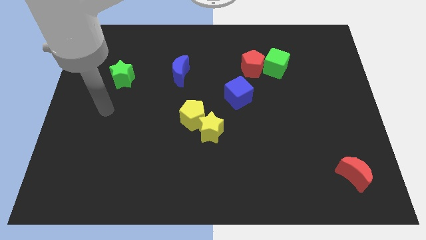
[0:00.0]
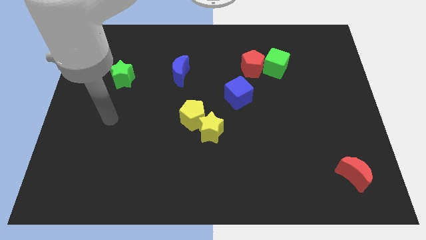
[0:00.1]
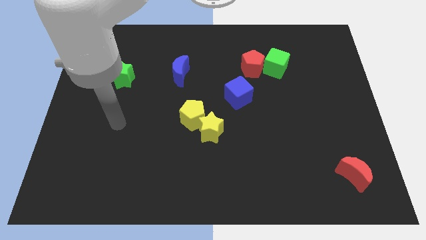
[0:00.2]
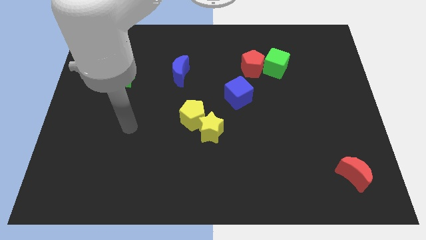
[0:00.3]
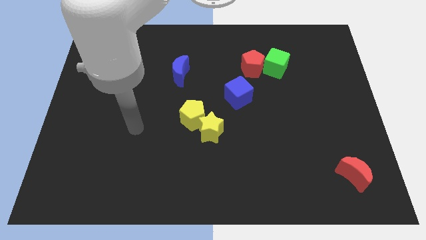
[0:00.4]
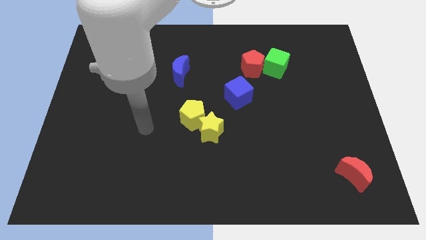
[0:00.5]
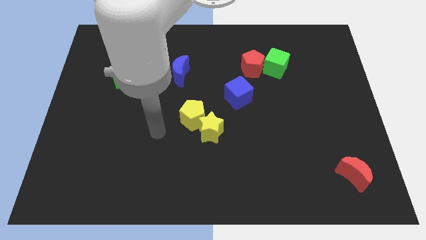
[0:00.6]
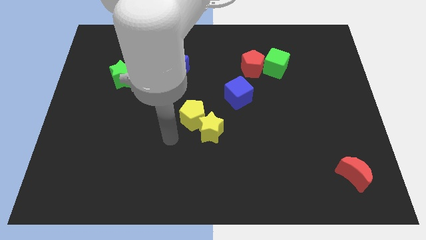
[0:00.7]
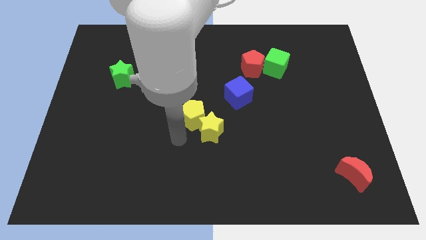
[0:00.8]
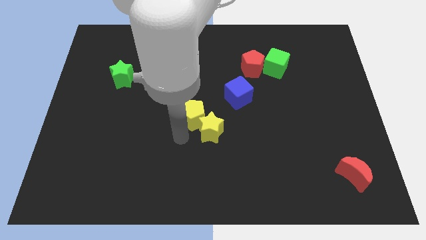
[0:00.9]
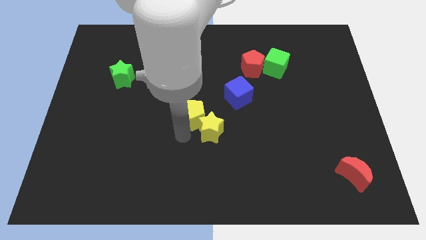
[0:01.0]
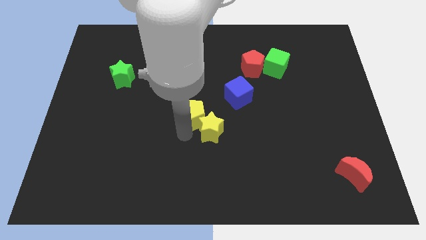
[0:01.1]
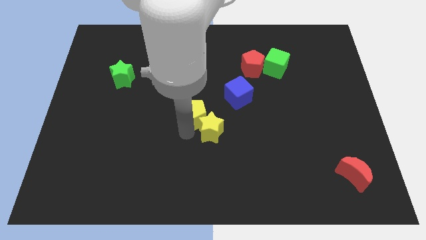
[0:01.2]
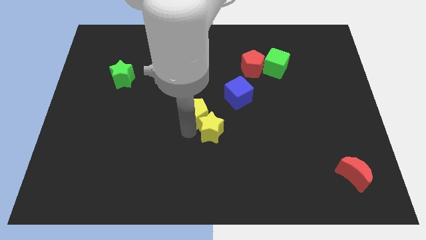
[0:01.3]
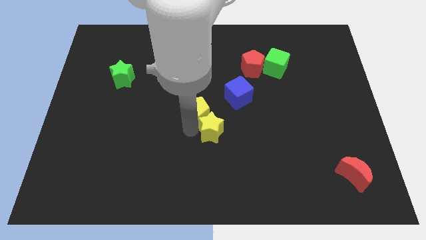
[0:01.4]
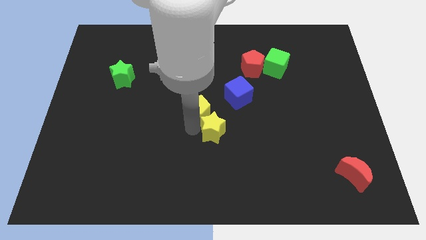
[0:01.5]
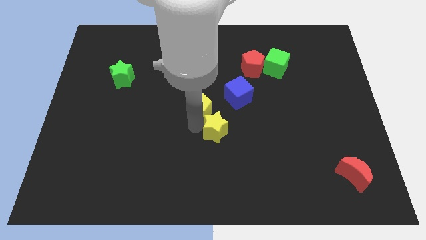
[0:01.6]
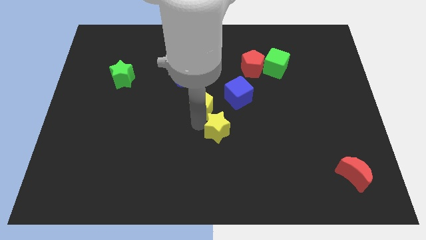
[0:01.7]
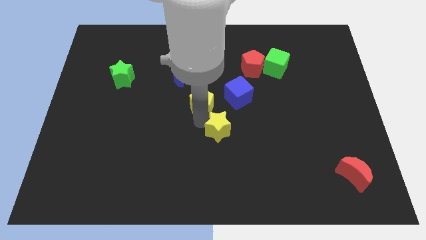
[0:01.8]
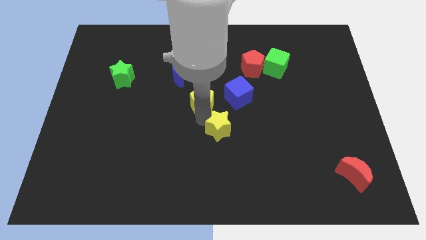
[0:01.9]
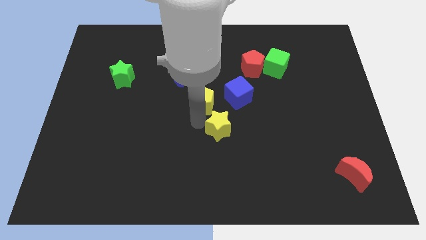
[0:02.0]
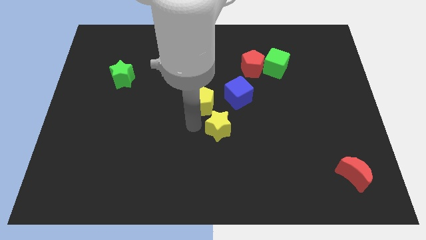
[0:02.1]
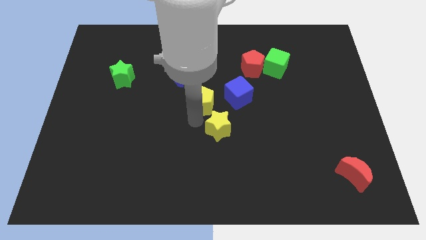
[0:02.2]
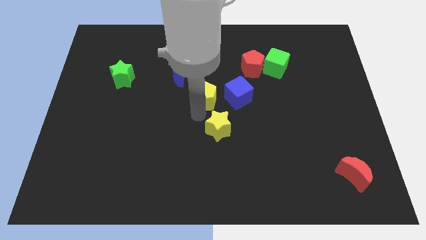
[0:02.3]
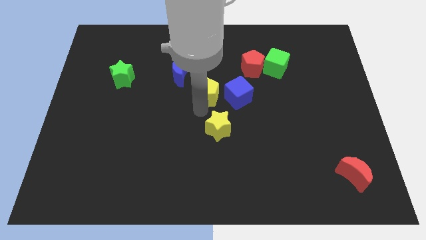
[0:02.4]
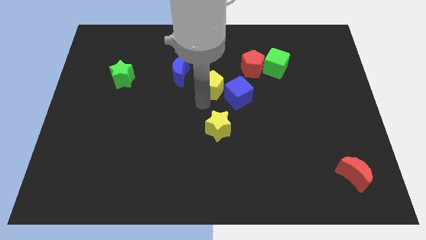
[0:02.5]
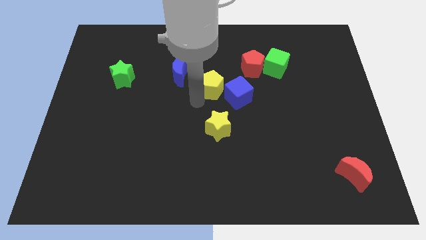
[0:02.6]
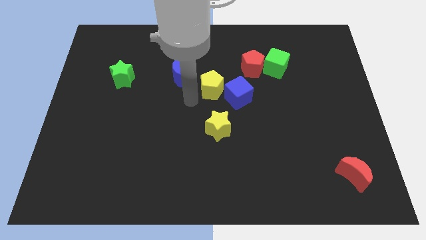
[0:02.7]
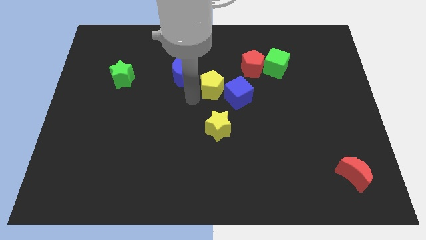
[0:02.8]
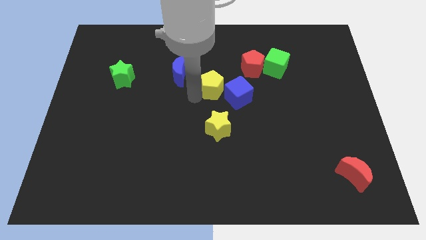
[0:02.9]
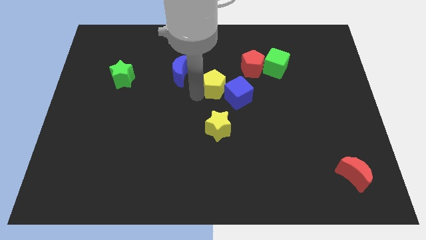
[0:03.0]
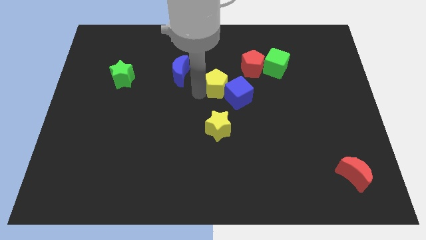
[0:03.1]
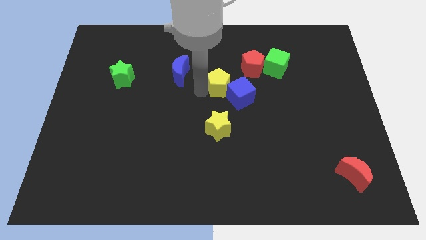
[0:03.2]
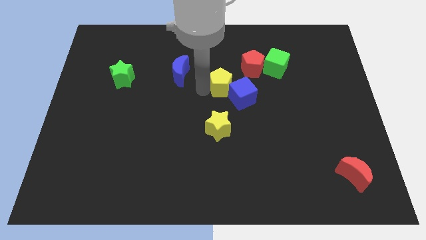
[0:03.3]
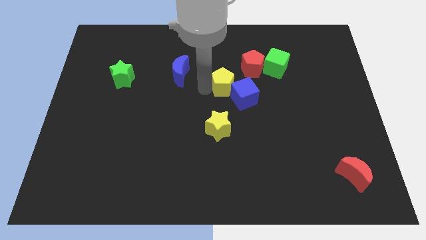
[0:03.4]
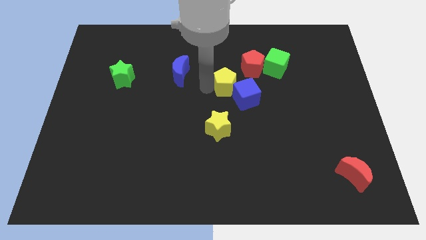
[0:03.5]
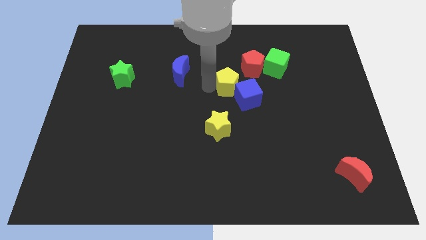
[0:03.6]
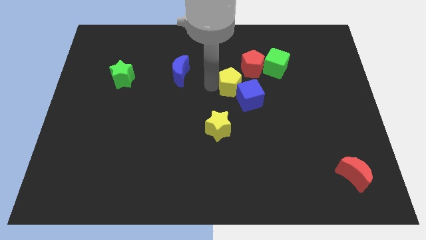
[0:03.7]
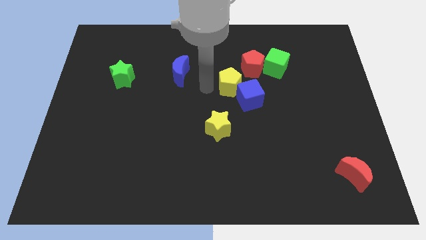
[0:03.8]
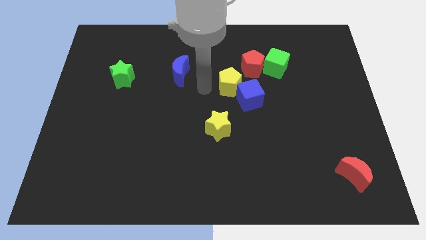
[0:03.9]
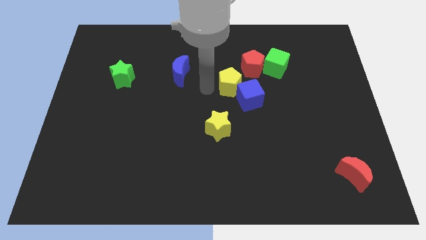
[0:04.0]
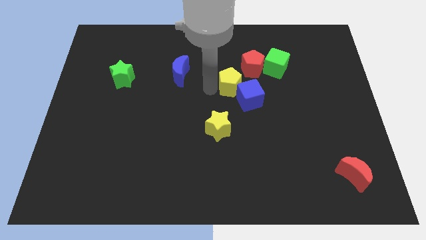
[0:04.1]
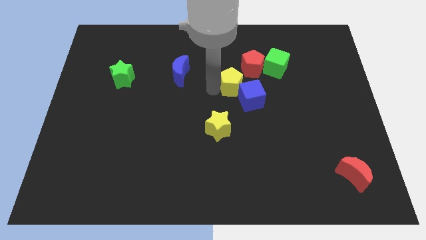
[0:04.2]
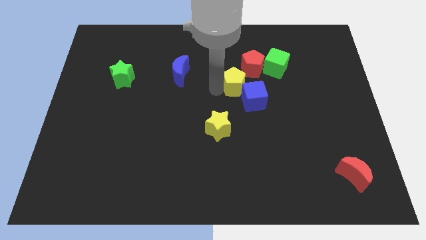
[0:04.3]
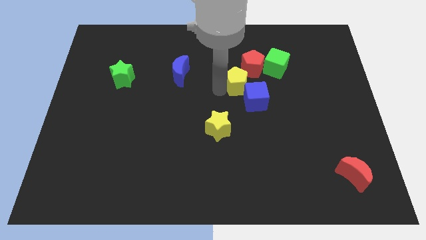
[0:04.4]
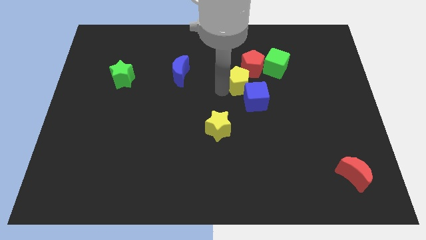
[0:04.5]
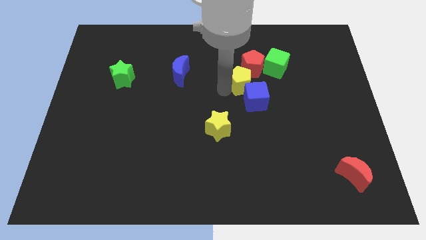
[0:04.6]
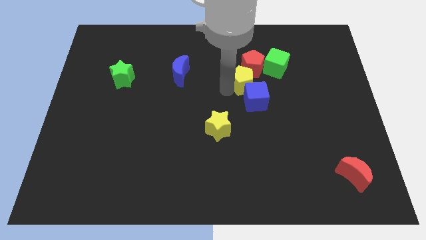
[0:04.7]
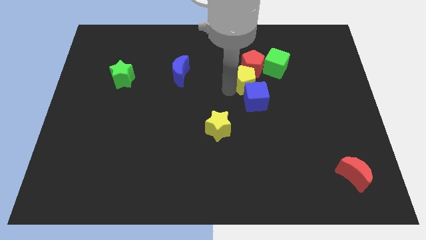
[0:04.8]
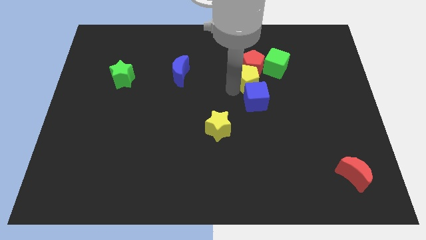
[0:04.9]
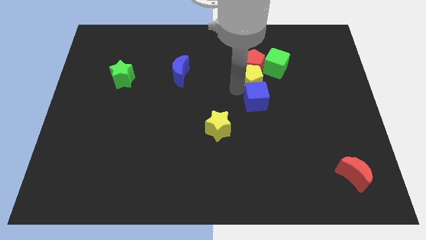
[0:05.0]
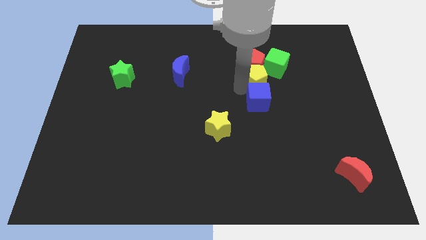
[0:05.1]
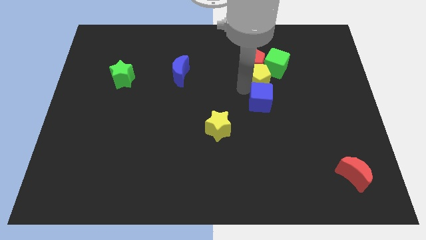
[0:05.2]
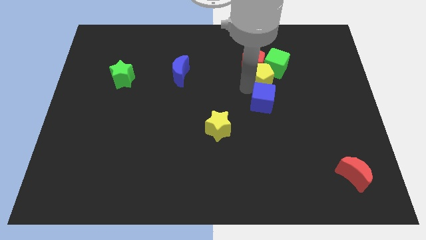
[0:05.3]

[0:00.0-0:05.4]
move the yellow pentagon close to the green cube

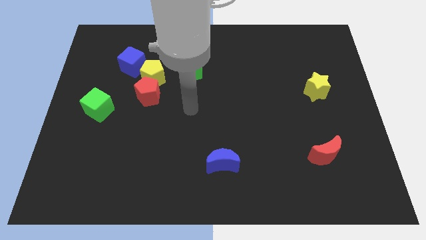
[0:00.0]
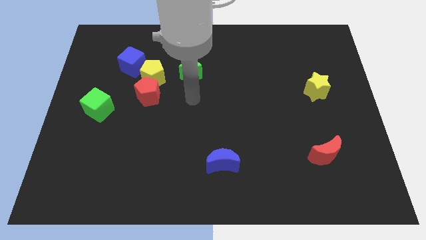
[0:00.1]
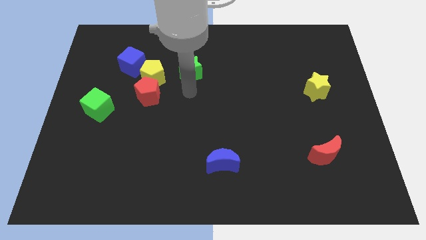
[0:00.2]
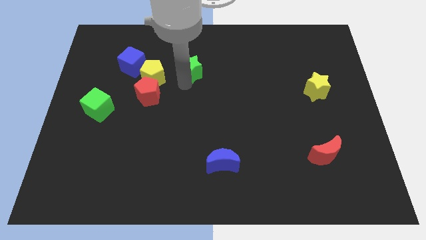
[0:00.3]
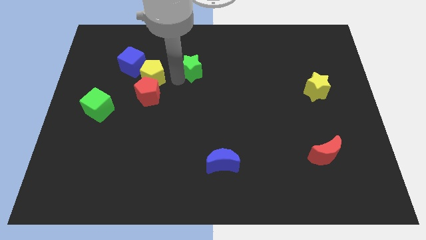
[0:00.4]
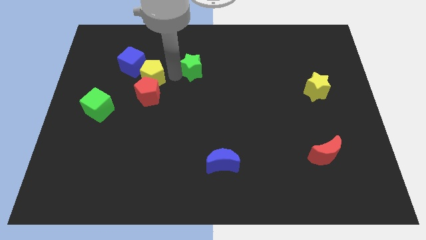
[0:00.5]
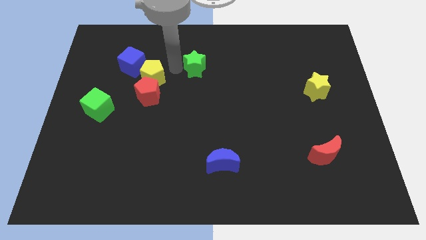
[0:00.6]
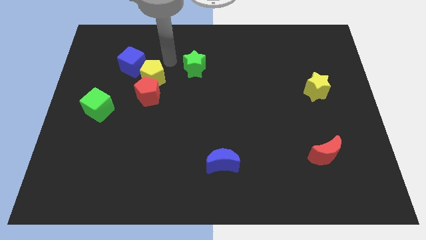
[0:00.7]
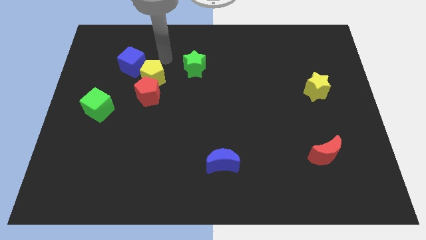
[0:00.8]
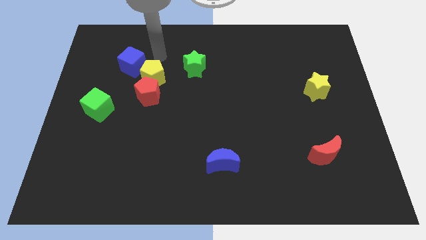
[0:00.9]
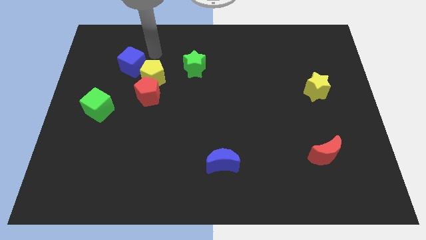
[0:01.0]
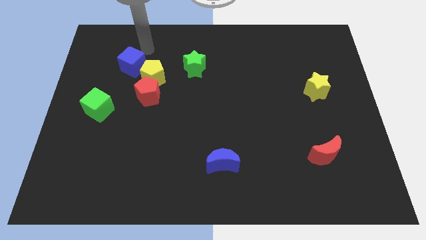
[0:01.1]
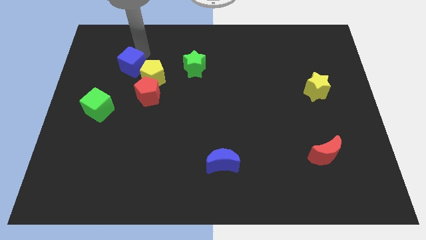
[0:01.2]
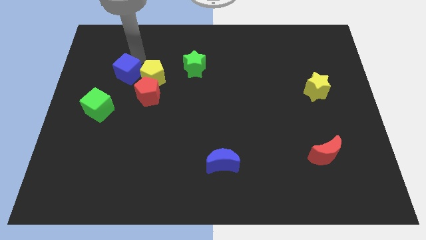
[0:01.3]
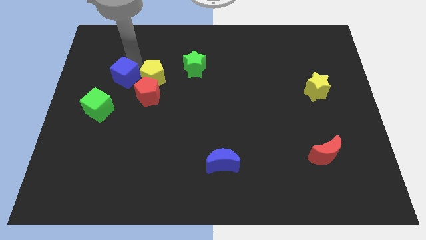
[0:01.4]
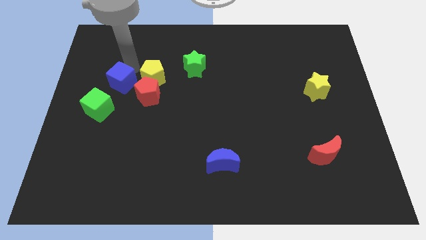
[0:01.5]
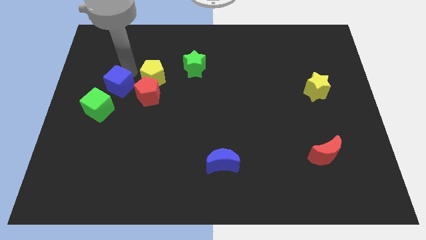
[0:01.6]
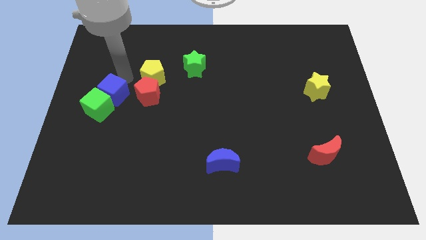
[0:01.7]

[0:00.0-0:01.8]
move the blue cube next to the green cube

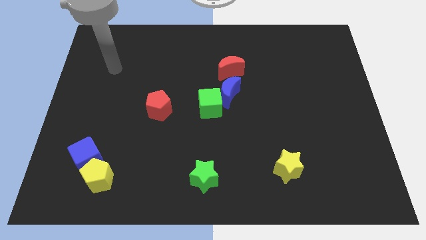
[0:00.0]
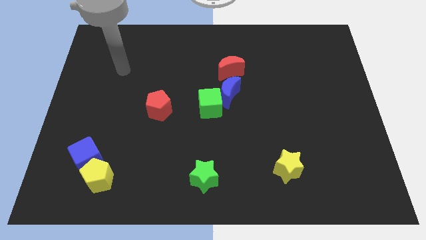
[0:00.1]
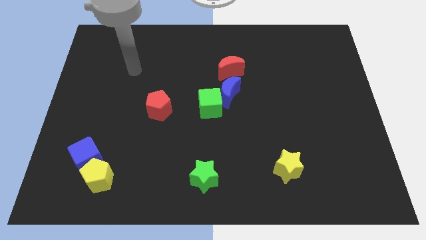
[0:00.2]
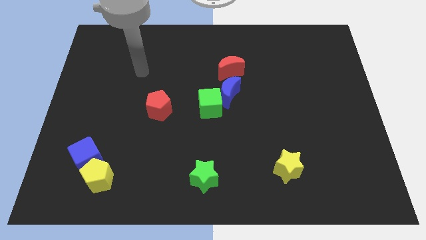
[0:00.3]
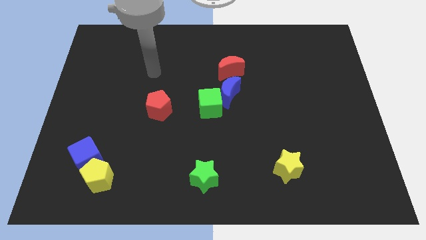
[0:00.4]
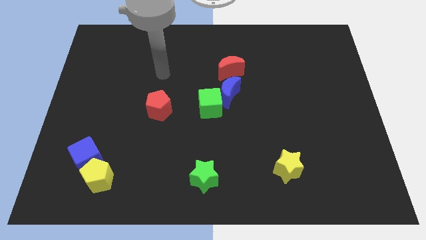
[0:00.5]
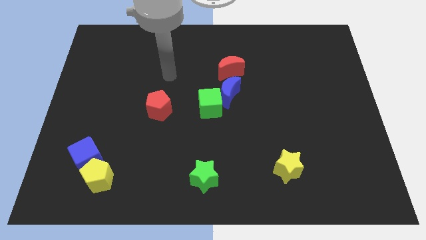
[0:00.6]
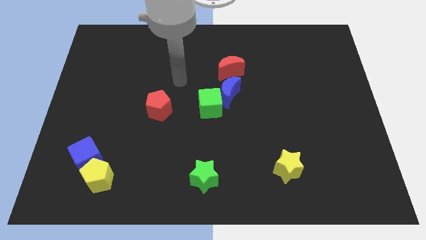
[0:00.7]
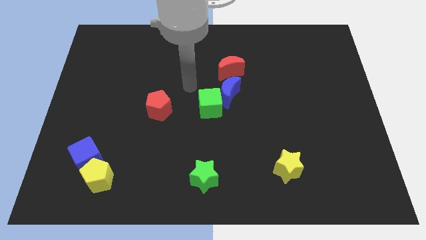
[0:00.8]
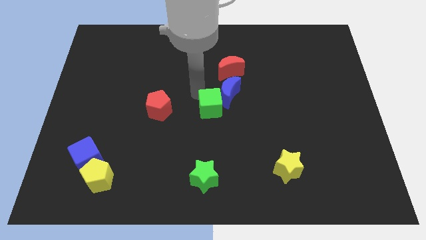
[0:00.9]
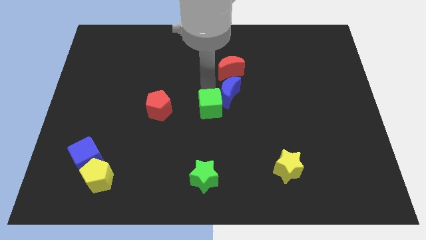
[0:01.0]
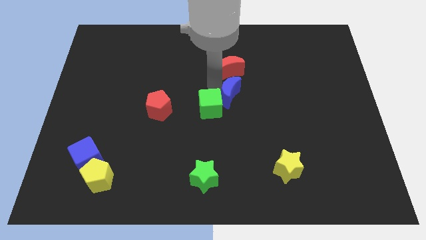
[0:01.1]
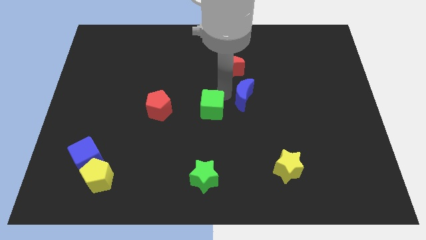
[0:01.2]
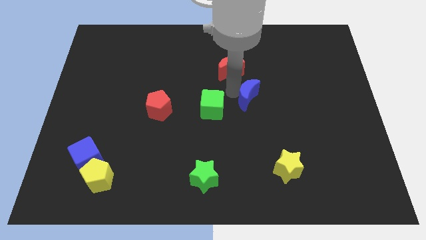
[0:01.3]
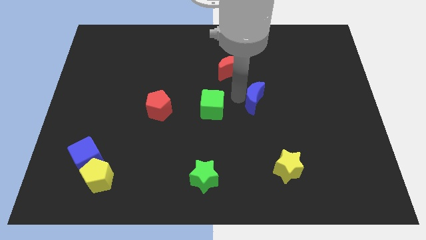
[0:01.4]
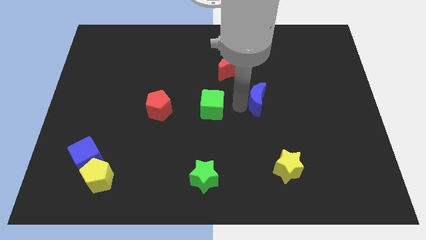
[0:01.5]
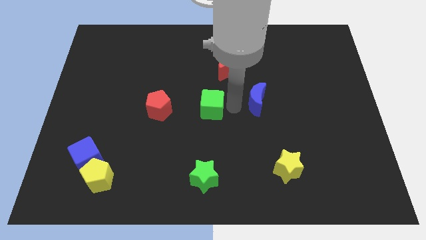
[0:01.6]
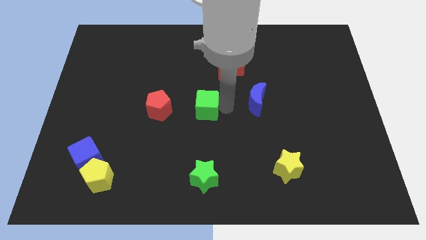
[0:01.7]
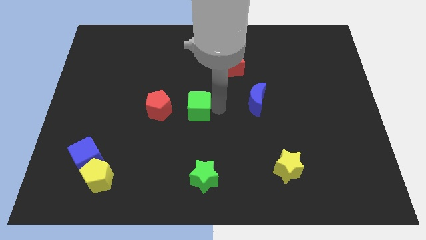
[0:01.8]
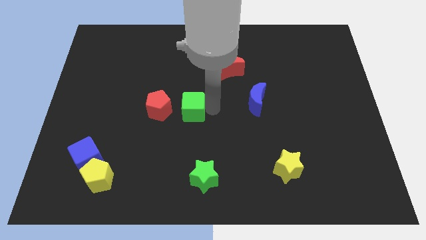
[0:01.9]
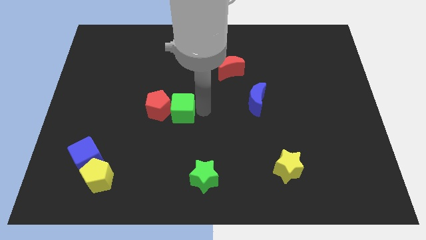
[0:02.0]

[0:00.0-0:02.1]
move the green cube towards the red pentagon
